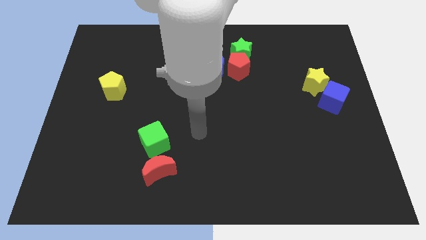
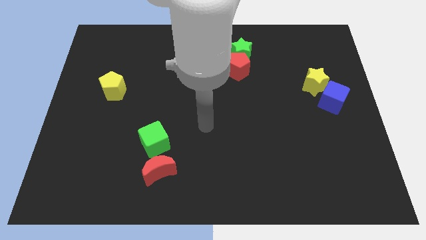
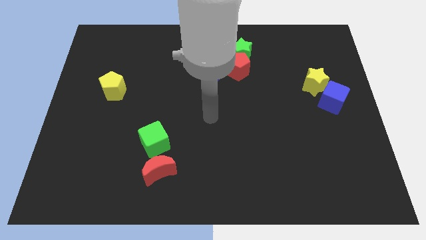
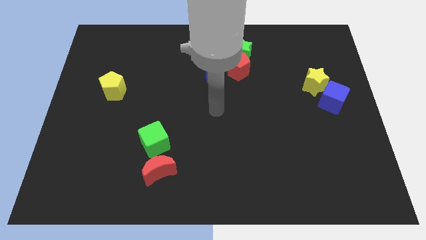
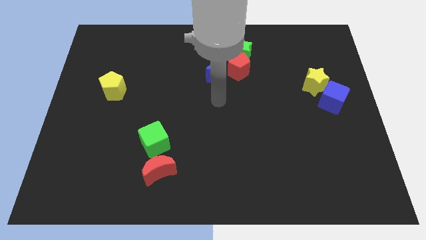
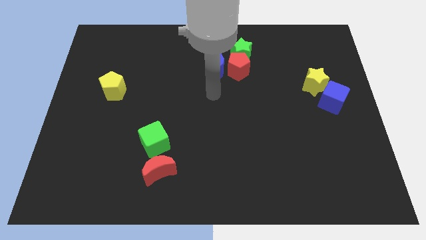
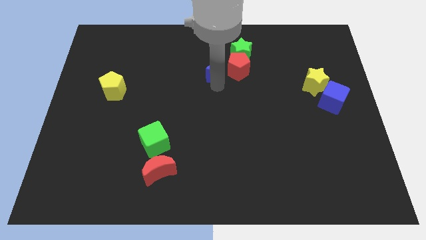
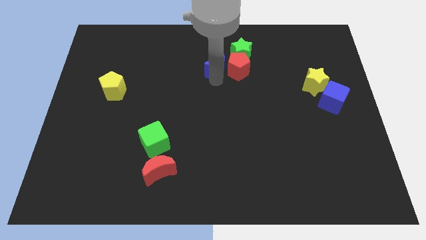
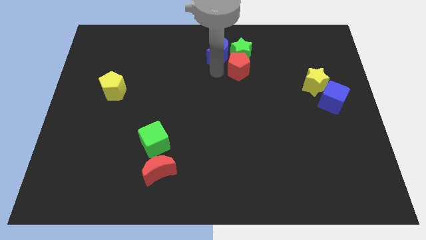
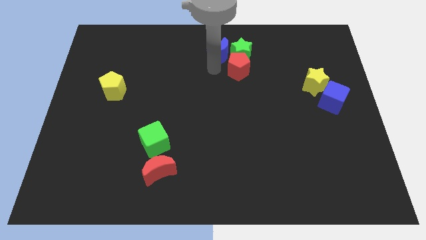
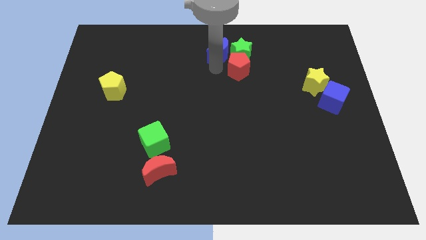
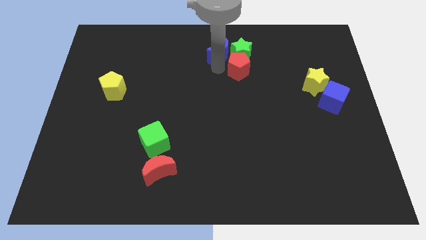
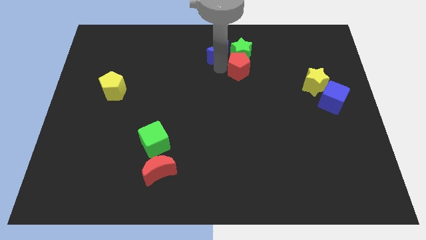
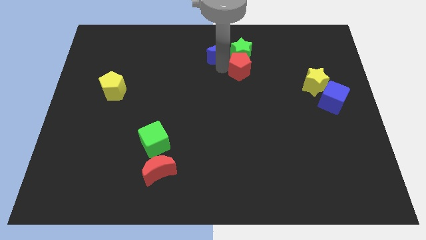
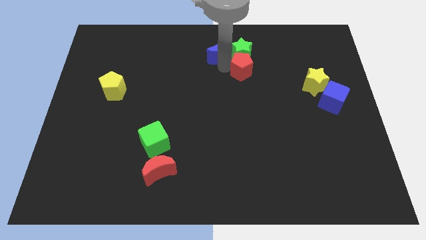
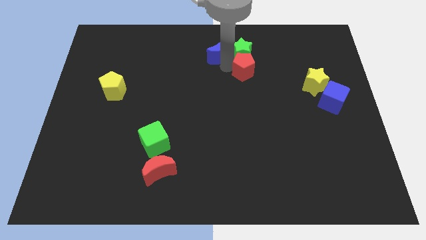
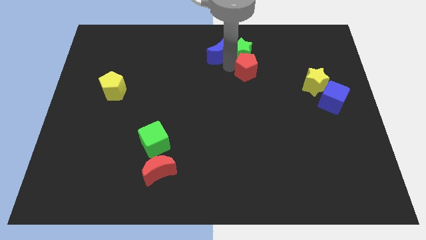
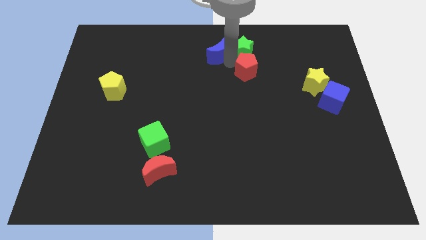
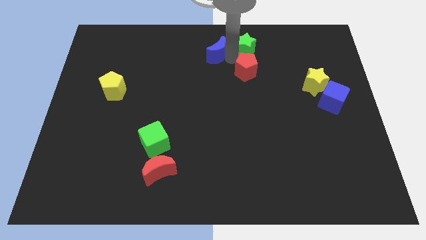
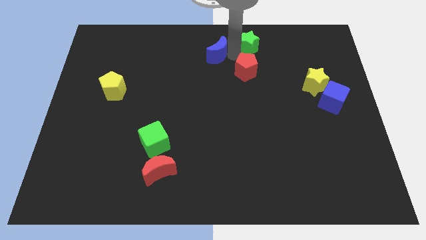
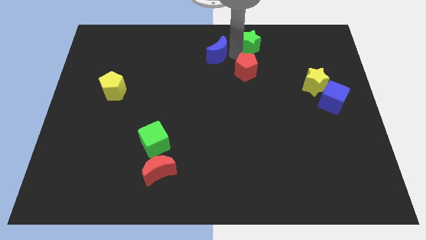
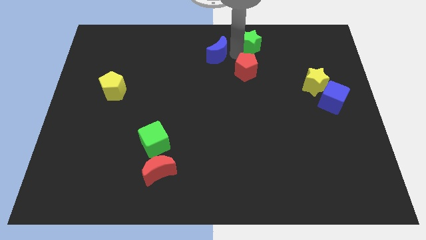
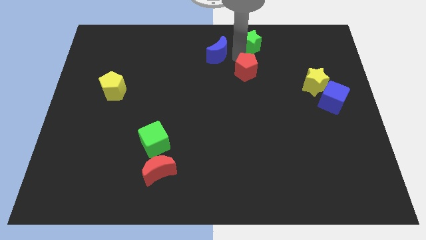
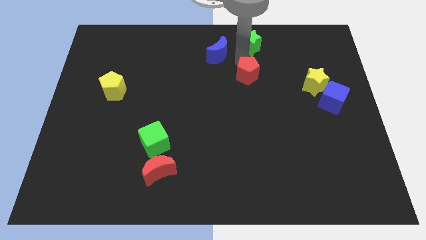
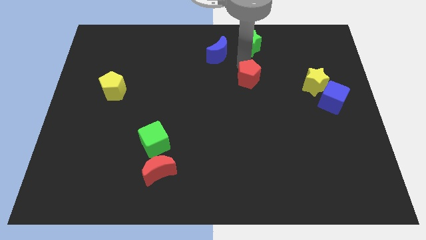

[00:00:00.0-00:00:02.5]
separate the red pentagon from the green star and blue moon

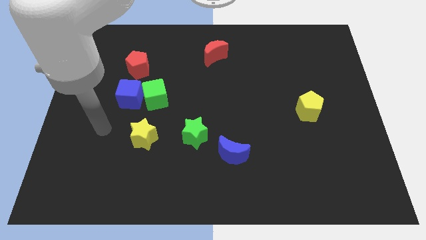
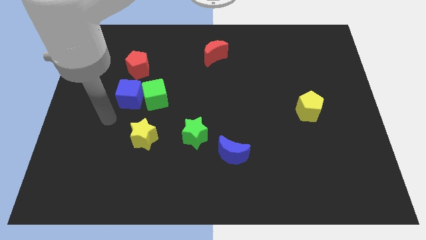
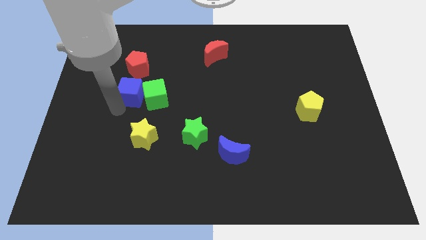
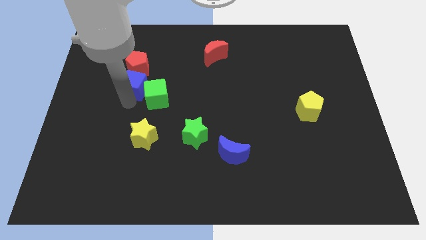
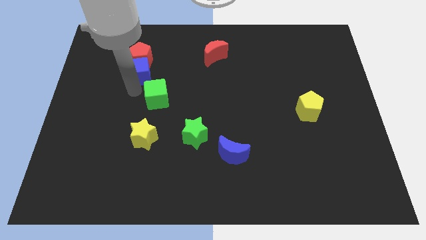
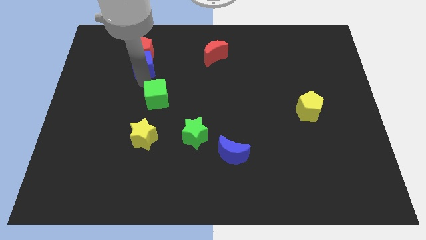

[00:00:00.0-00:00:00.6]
move the green cube away from the blue cube

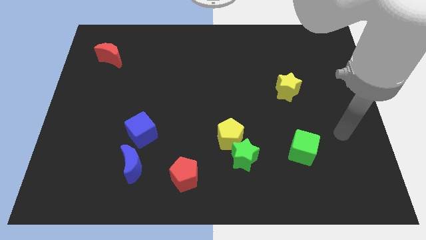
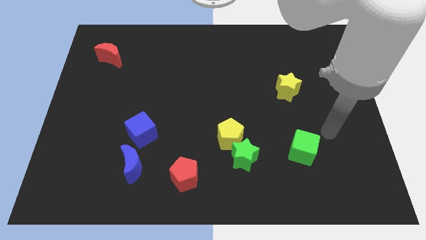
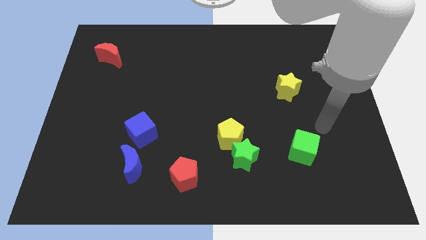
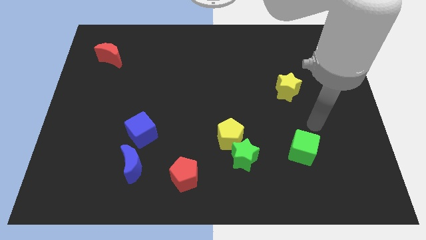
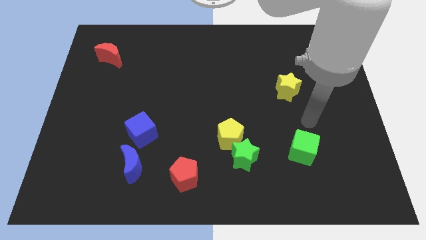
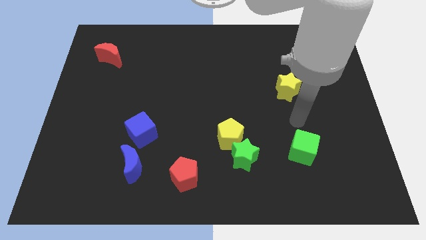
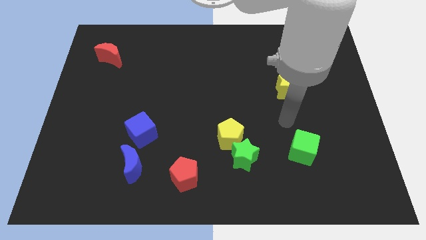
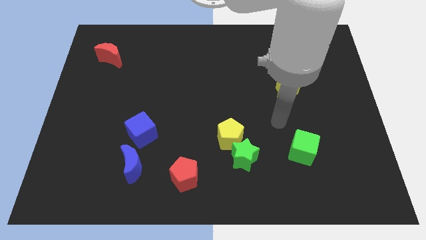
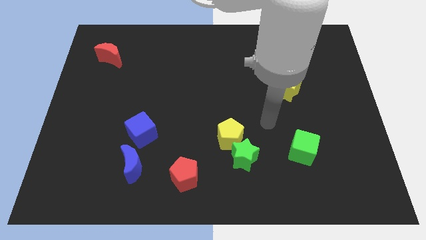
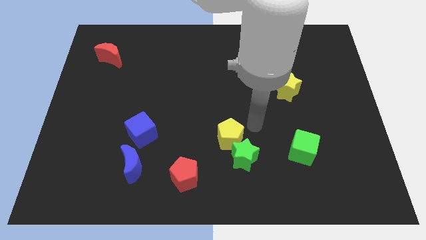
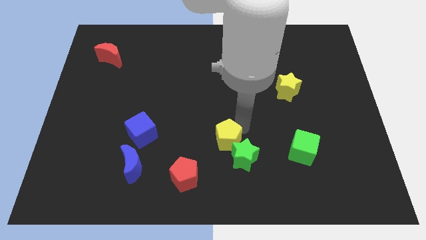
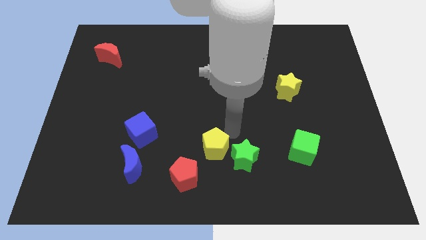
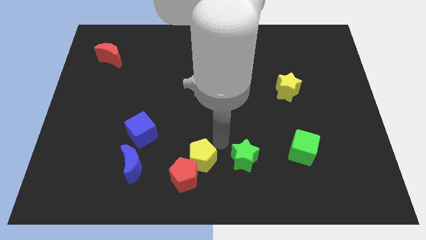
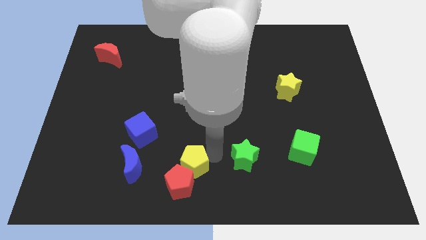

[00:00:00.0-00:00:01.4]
pull the green star apart from the yellow pentagon

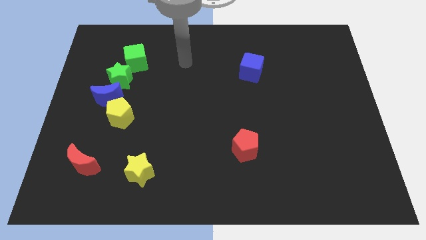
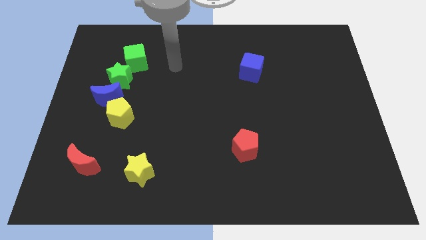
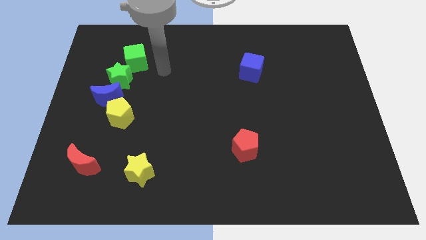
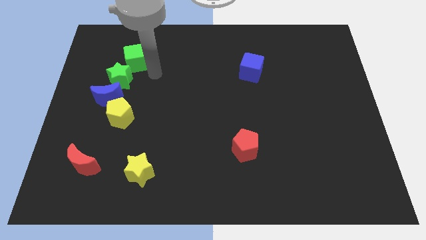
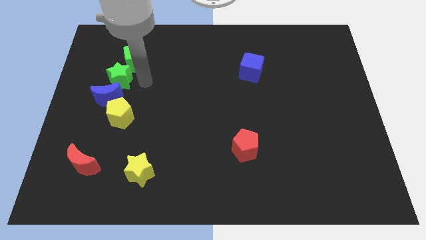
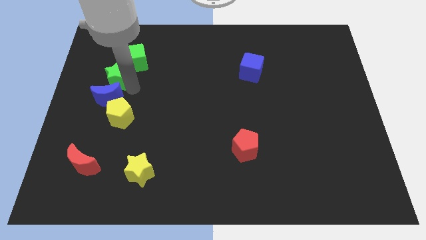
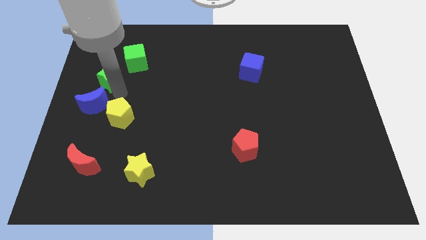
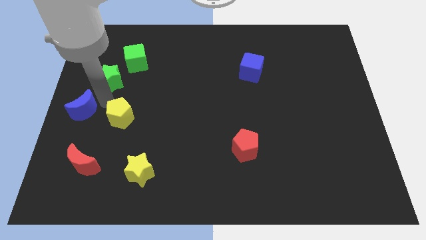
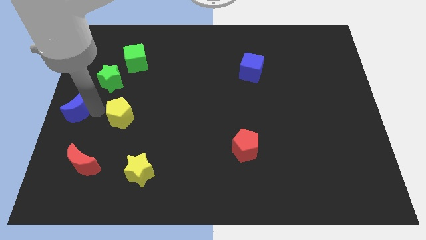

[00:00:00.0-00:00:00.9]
separate the yellow pentagon from the blue moon

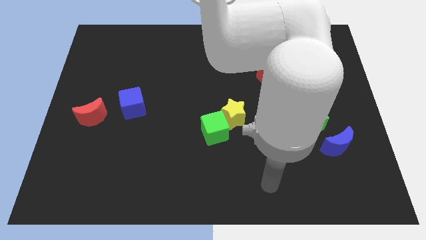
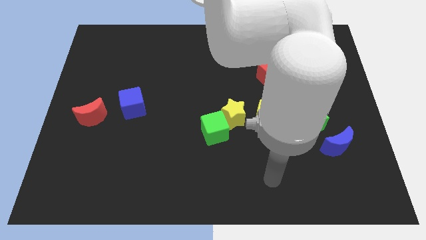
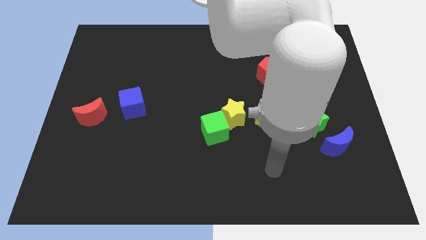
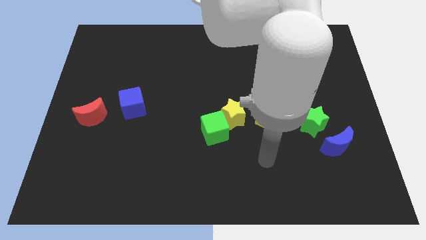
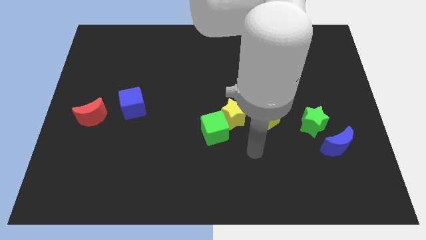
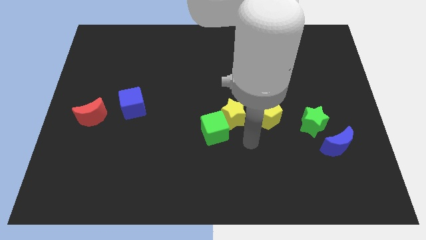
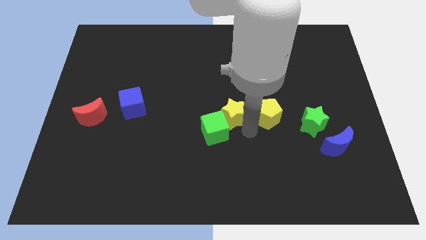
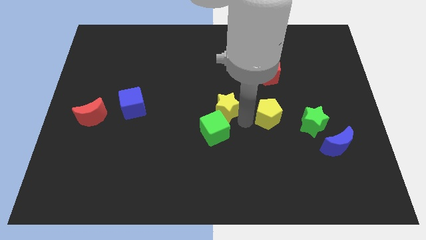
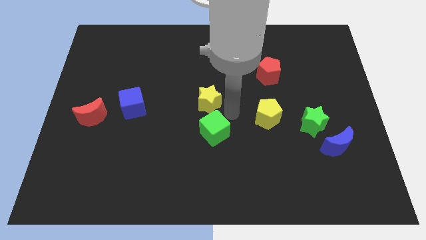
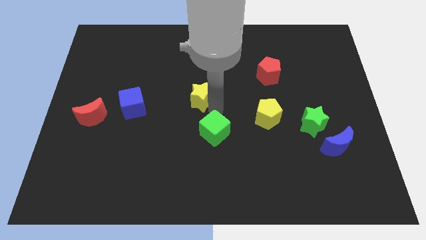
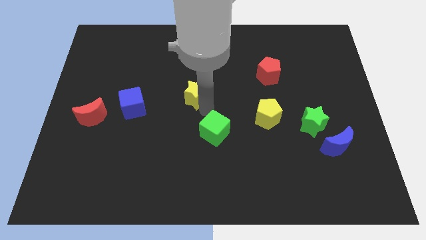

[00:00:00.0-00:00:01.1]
separate the green cube from the yellow star

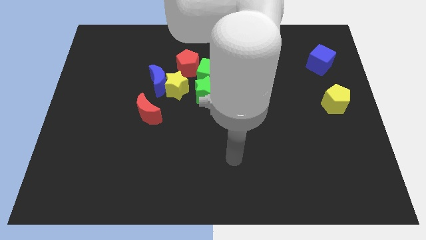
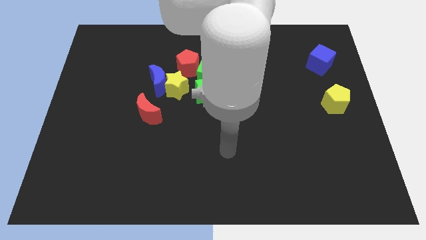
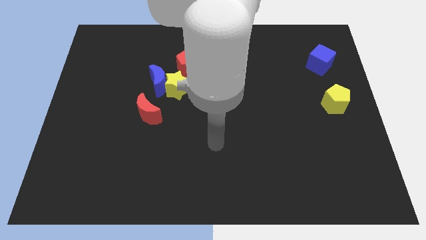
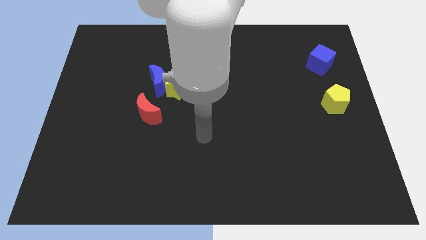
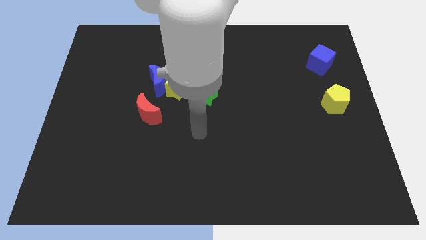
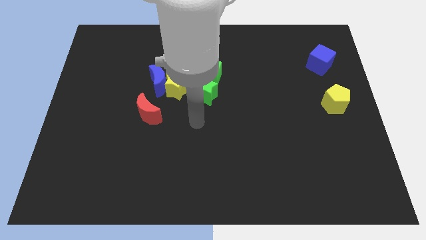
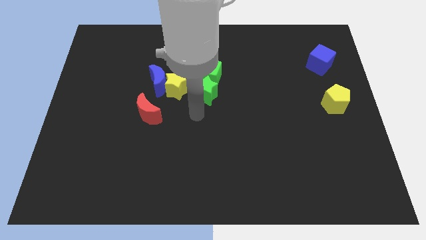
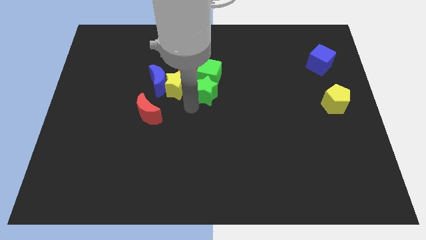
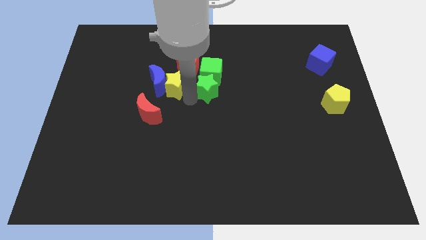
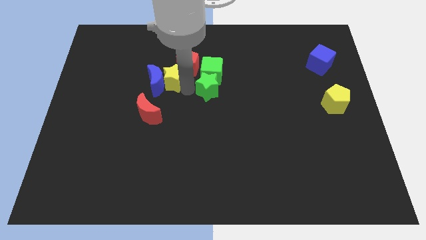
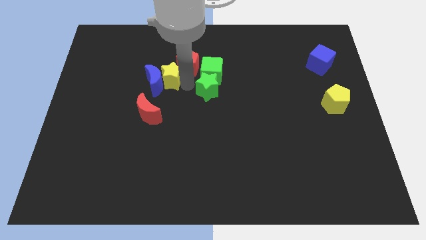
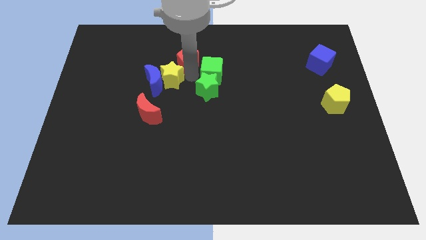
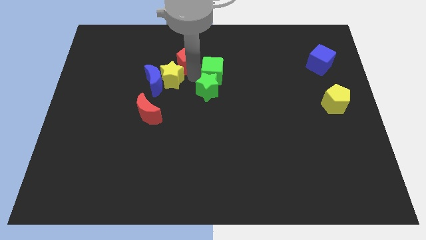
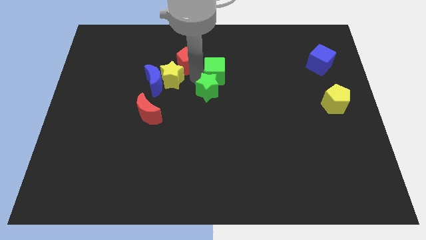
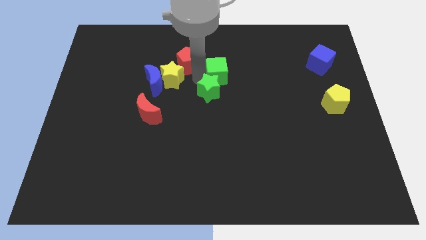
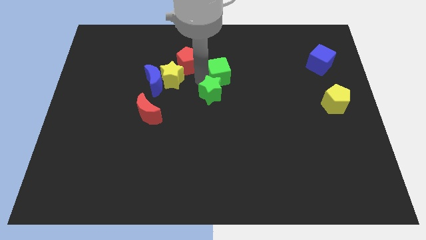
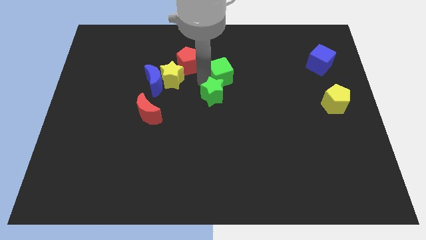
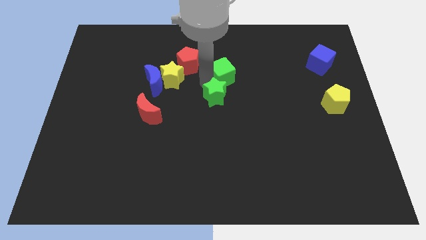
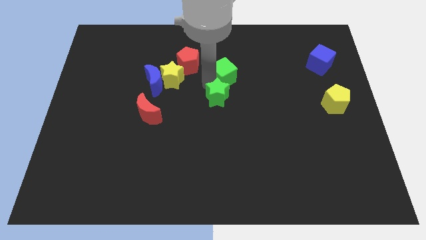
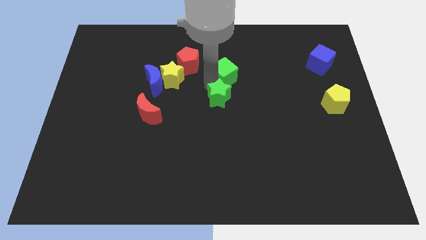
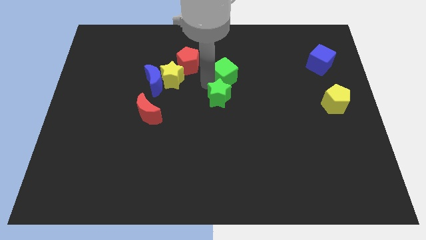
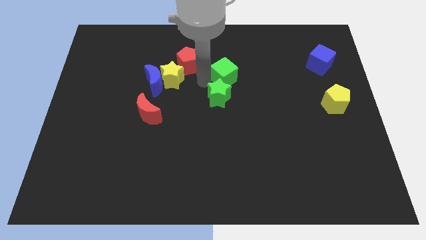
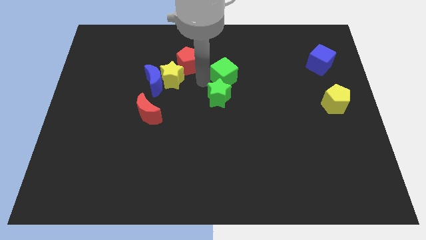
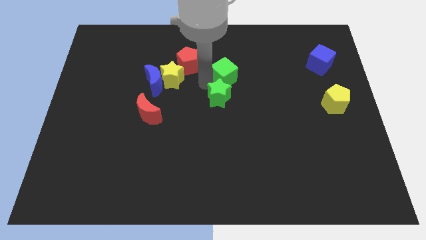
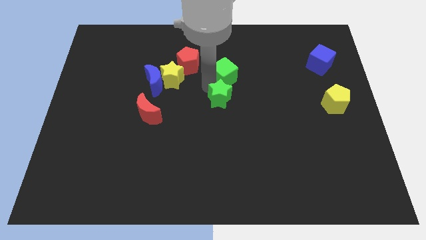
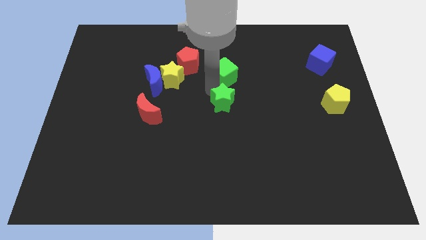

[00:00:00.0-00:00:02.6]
separate the green star from the green cube and yellow star

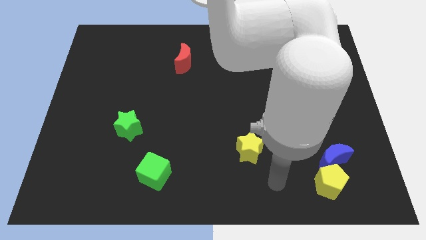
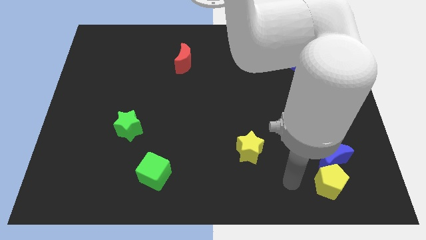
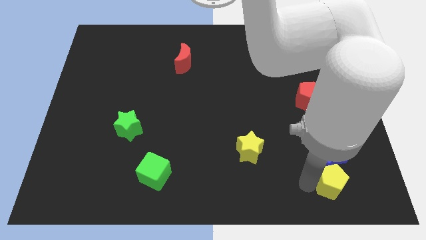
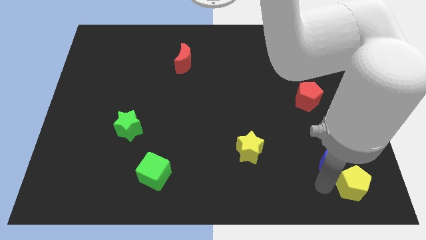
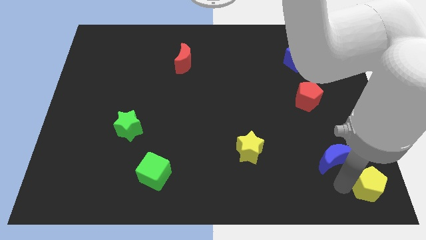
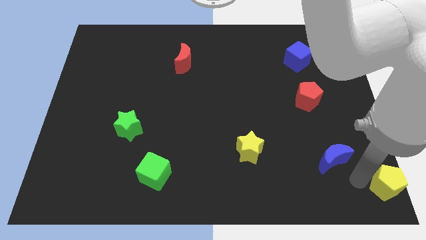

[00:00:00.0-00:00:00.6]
pull the blue moon apart from the yellow pentagon
